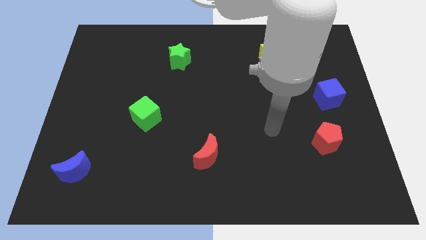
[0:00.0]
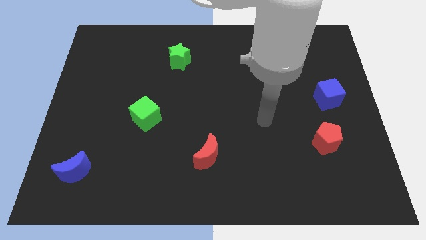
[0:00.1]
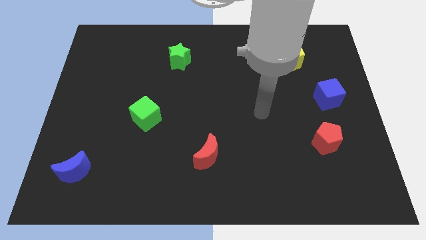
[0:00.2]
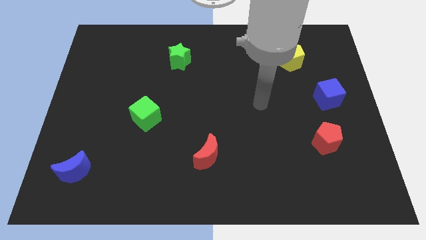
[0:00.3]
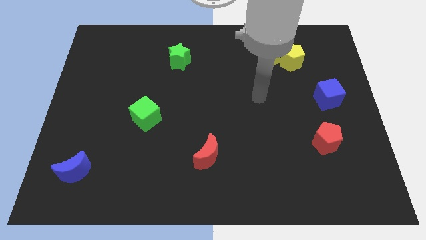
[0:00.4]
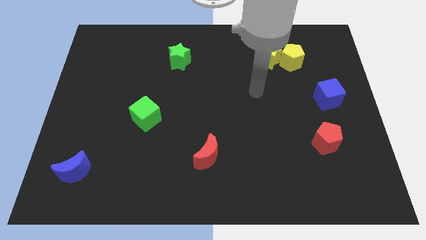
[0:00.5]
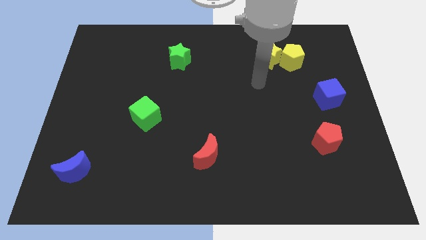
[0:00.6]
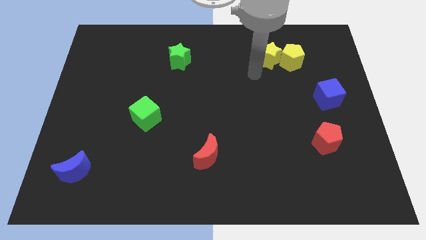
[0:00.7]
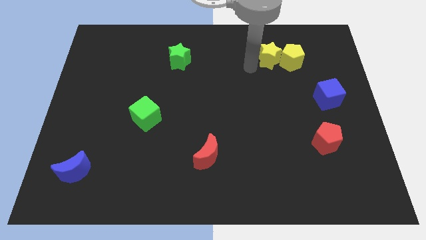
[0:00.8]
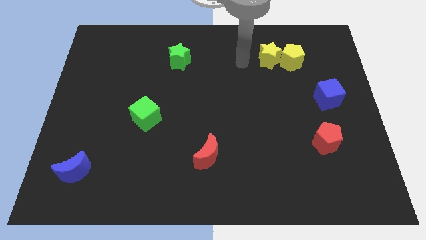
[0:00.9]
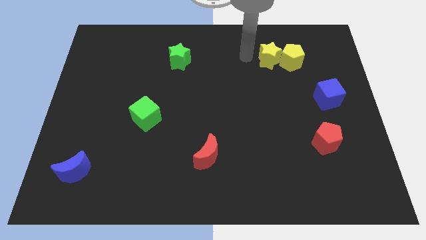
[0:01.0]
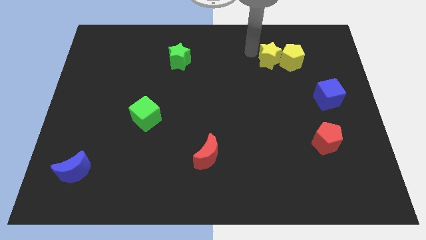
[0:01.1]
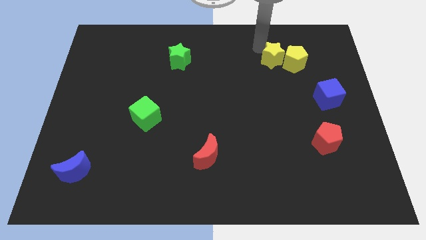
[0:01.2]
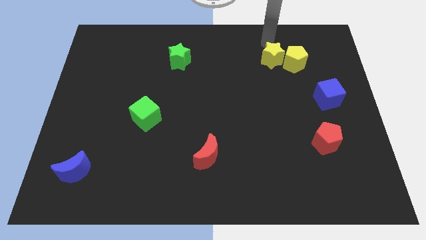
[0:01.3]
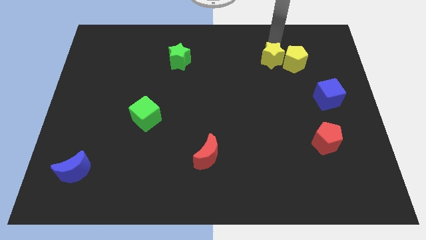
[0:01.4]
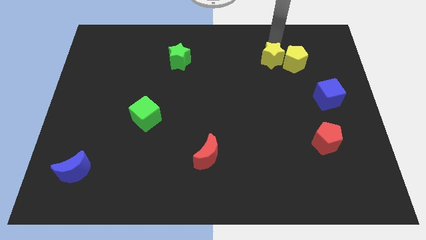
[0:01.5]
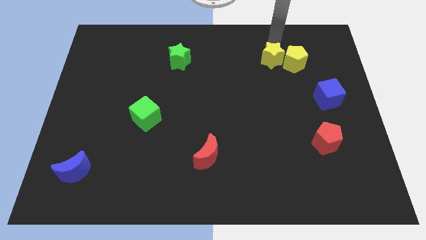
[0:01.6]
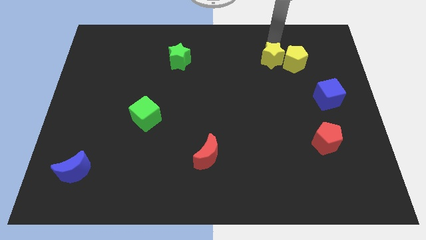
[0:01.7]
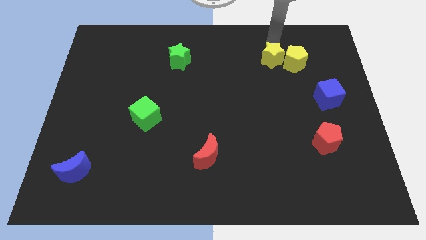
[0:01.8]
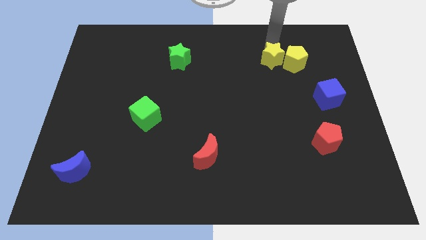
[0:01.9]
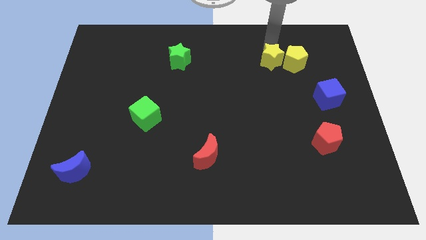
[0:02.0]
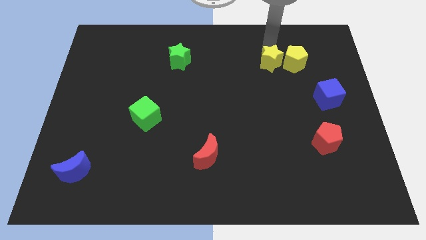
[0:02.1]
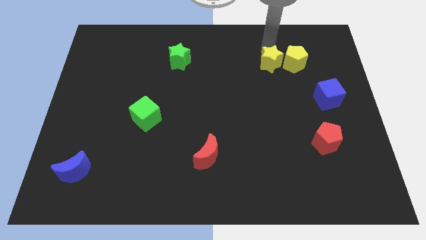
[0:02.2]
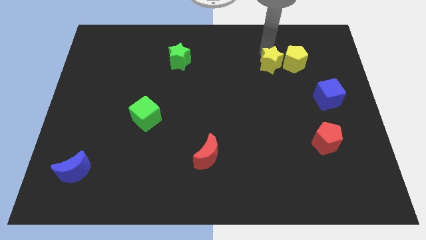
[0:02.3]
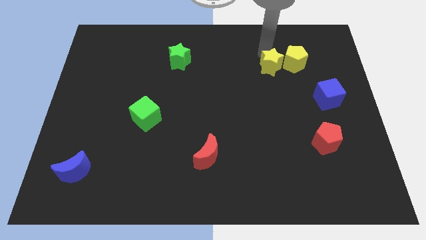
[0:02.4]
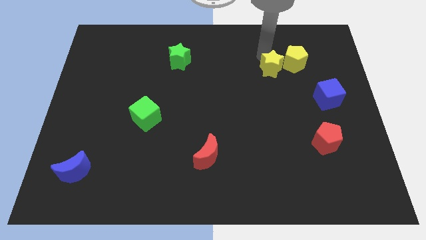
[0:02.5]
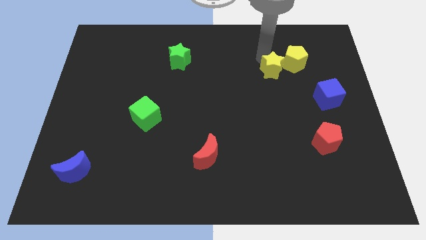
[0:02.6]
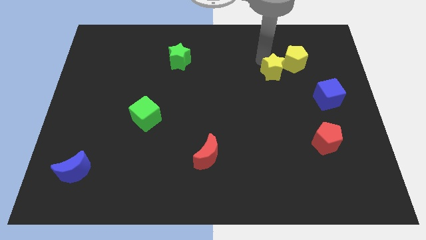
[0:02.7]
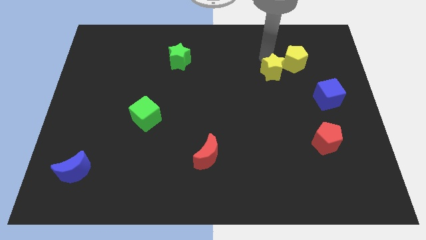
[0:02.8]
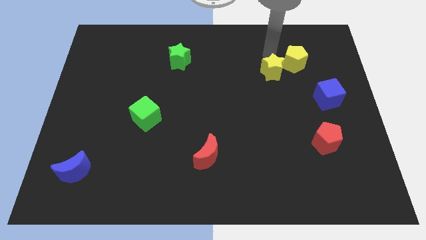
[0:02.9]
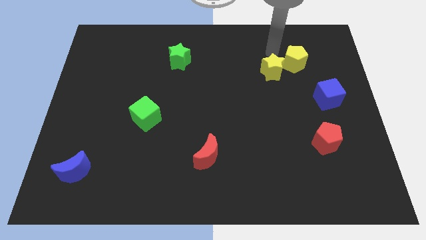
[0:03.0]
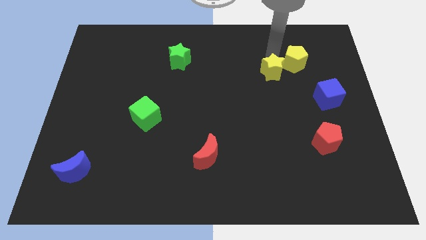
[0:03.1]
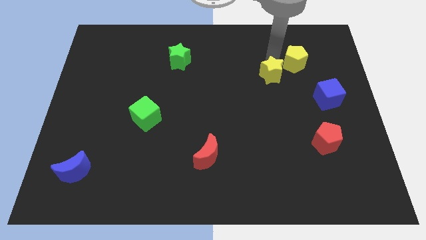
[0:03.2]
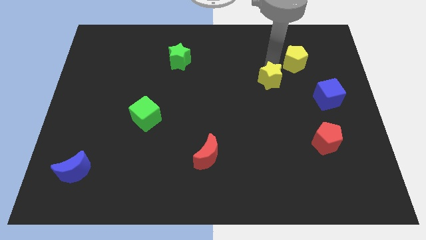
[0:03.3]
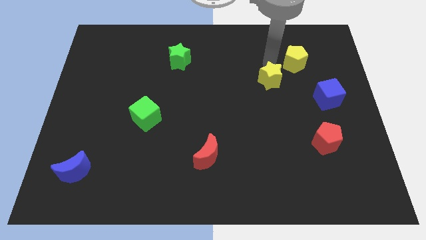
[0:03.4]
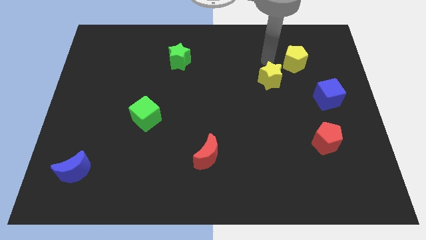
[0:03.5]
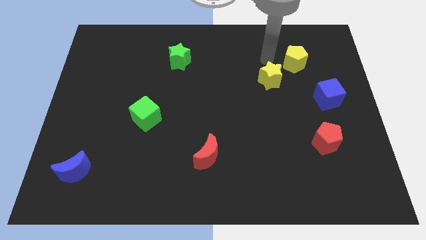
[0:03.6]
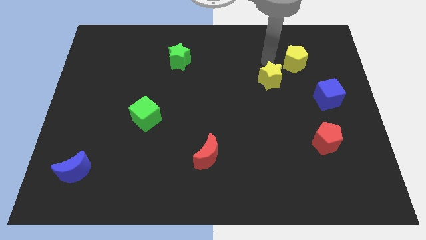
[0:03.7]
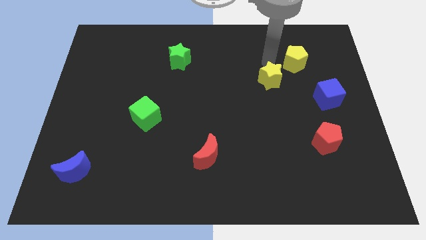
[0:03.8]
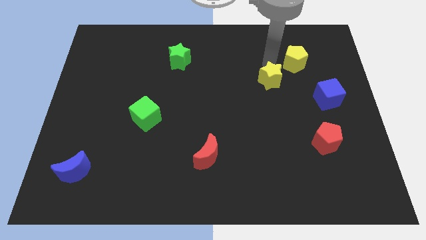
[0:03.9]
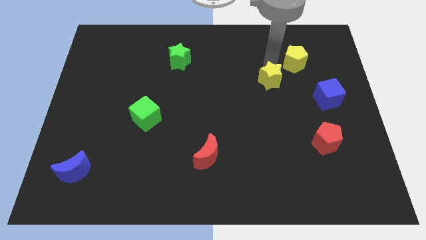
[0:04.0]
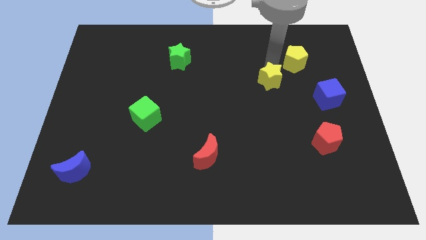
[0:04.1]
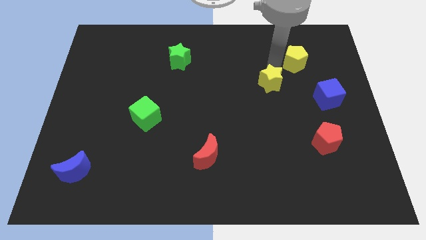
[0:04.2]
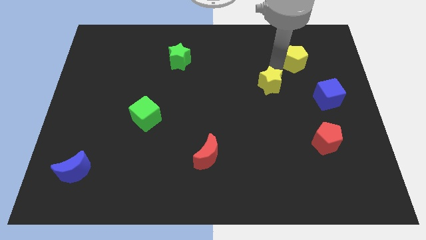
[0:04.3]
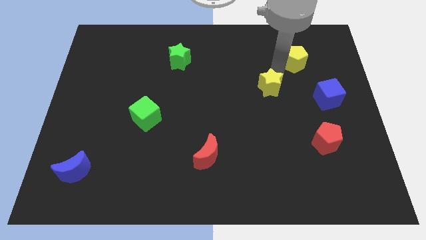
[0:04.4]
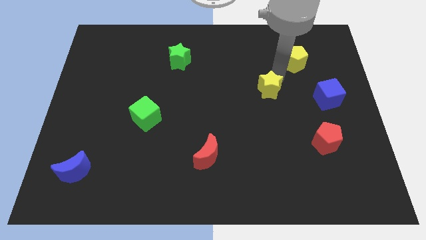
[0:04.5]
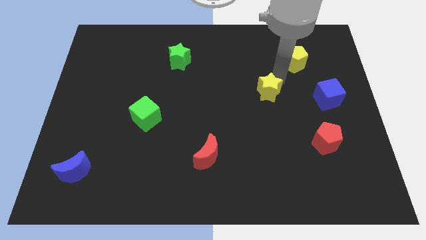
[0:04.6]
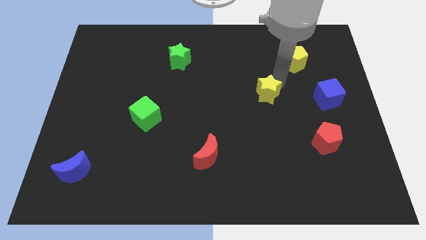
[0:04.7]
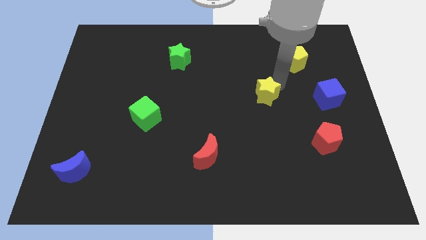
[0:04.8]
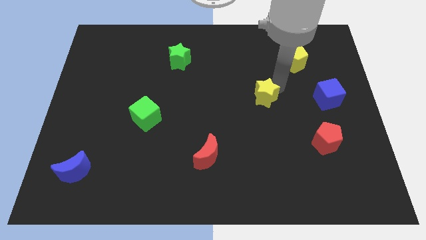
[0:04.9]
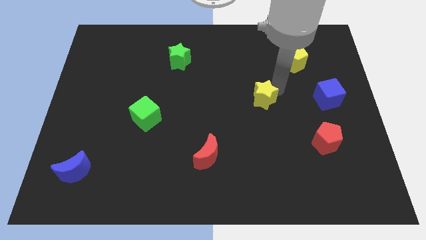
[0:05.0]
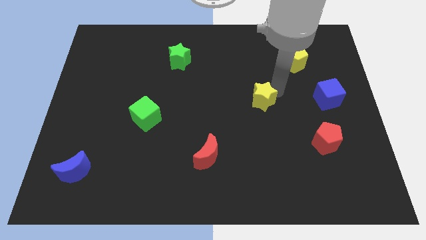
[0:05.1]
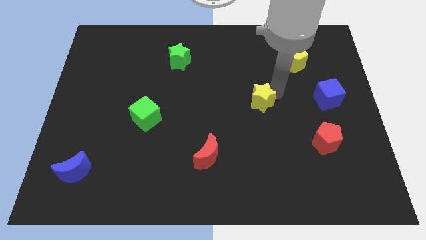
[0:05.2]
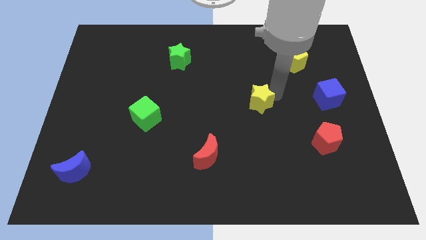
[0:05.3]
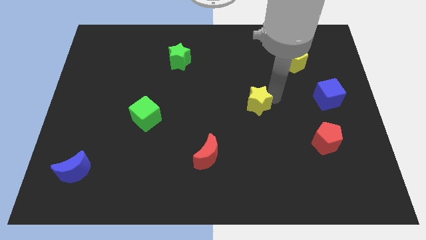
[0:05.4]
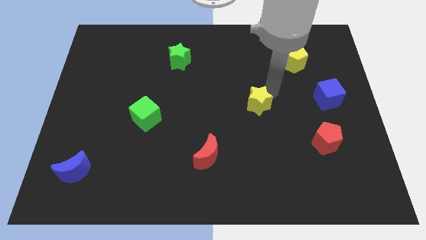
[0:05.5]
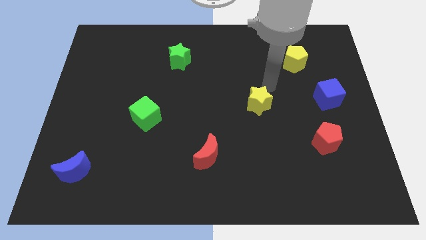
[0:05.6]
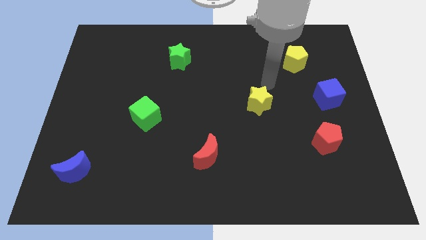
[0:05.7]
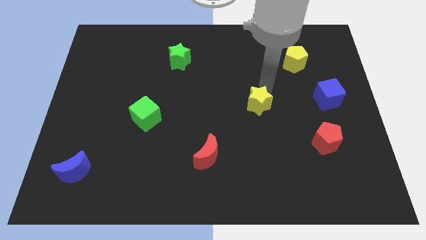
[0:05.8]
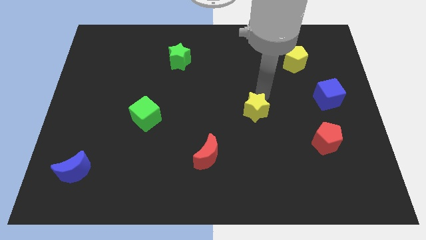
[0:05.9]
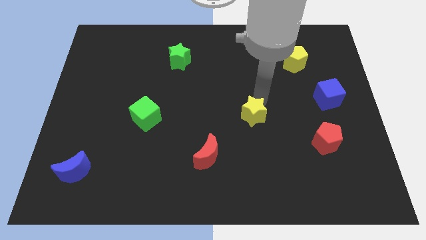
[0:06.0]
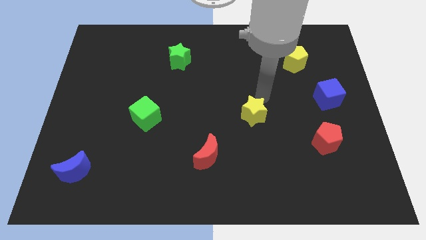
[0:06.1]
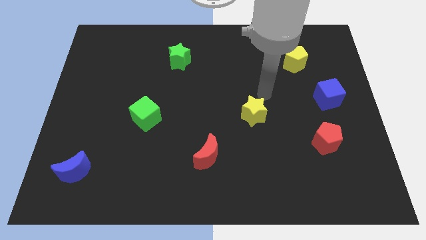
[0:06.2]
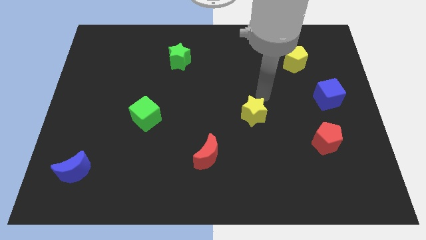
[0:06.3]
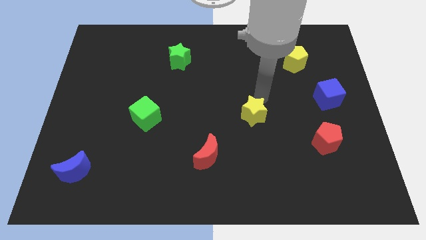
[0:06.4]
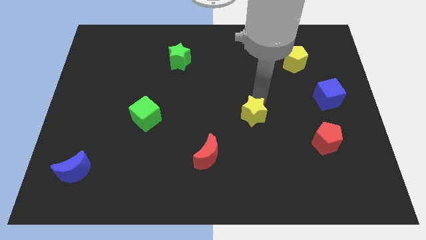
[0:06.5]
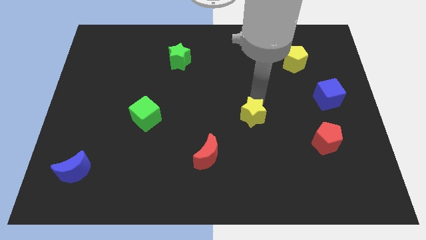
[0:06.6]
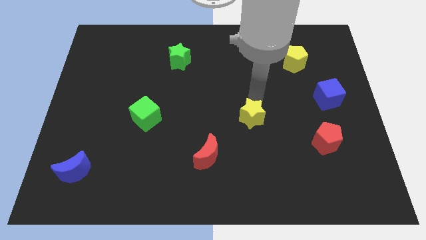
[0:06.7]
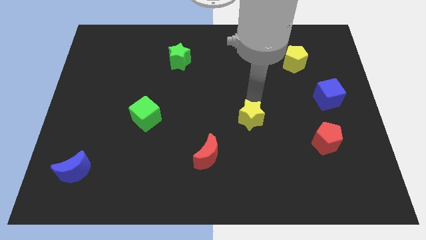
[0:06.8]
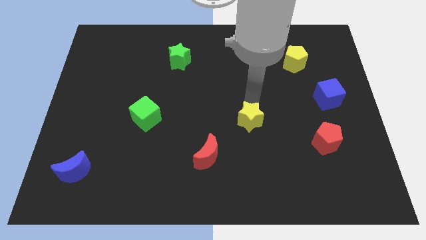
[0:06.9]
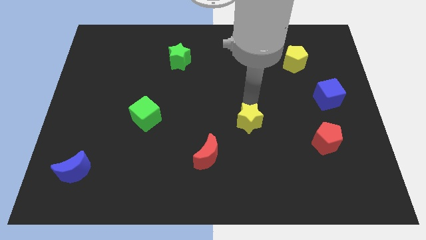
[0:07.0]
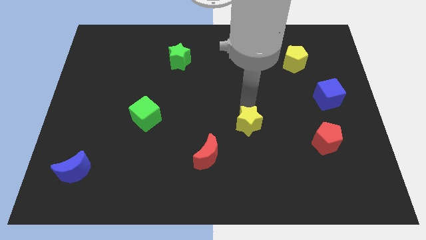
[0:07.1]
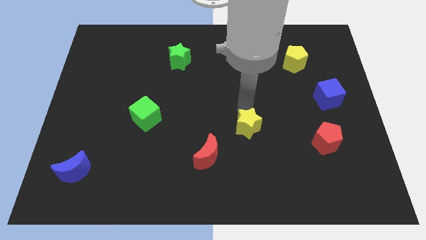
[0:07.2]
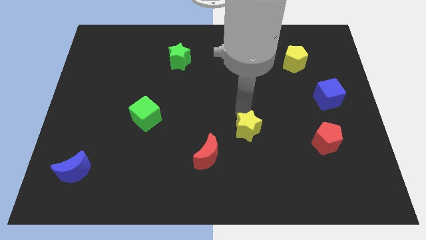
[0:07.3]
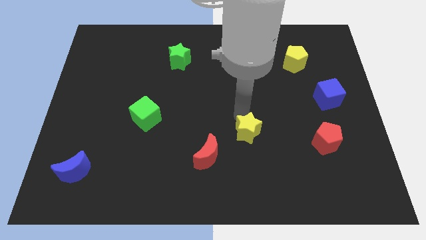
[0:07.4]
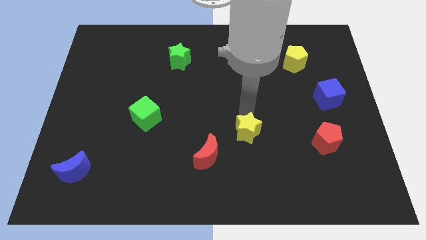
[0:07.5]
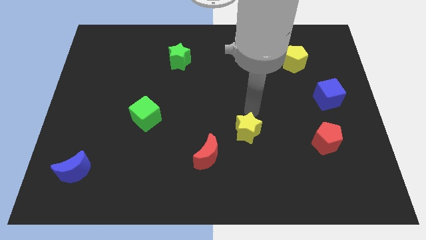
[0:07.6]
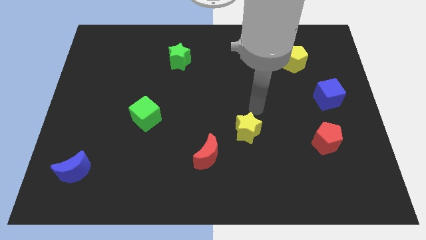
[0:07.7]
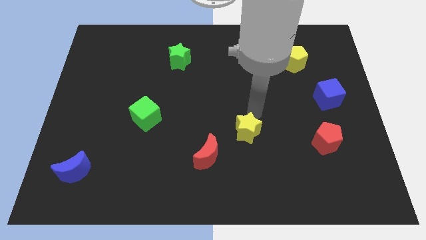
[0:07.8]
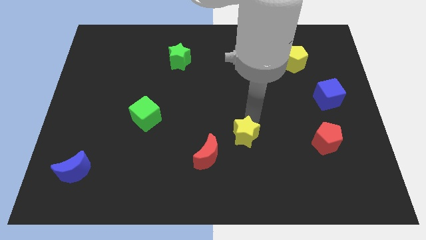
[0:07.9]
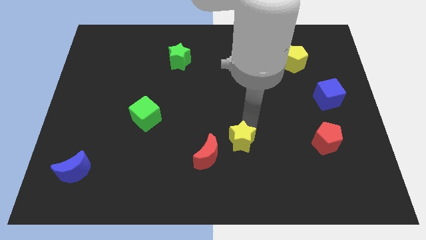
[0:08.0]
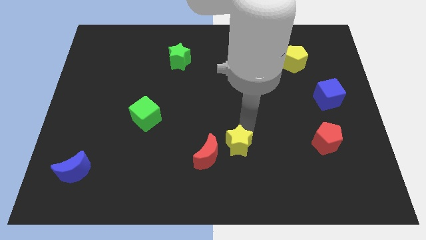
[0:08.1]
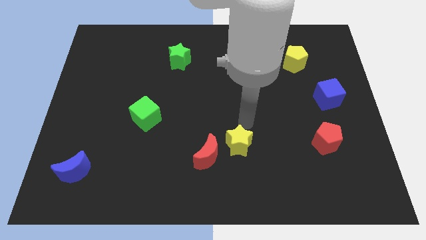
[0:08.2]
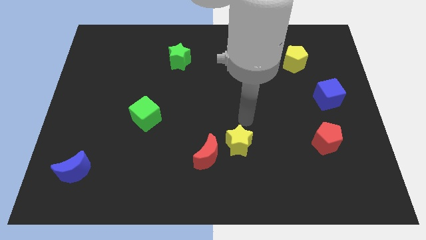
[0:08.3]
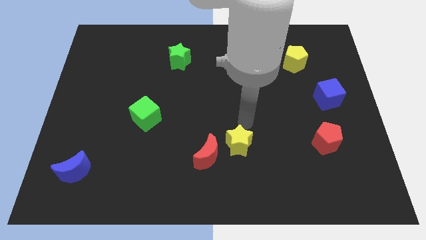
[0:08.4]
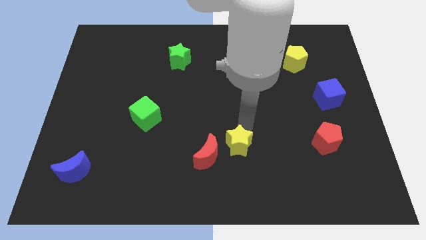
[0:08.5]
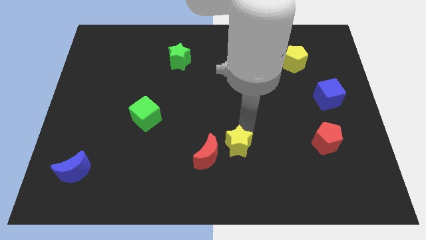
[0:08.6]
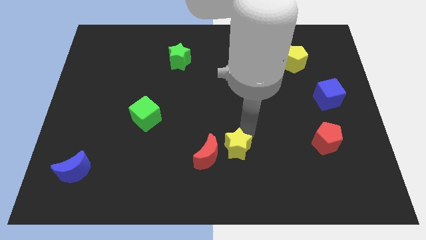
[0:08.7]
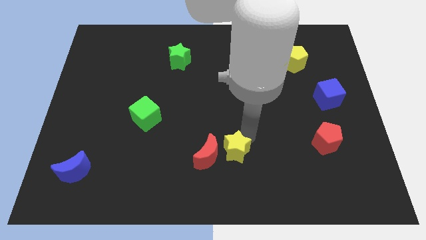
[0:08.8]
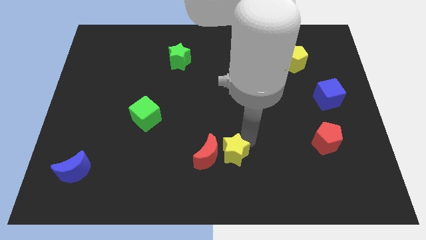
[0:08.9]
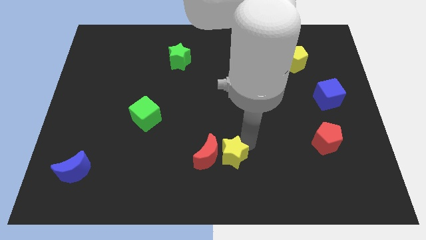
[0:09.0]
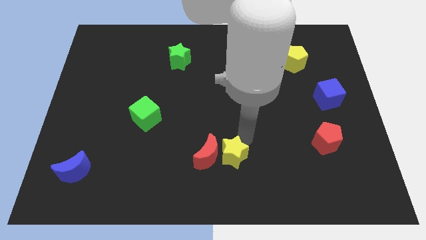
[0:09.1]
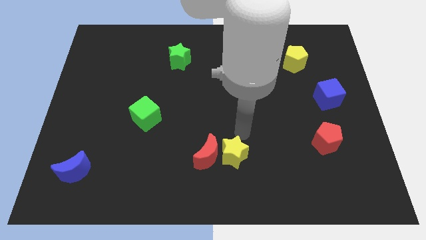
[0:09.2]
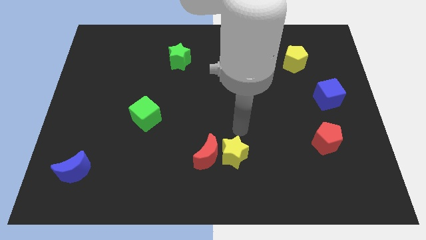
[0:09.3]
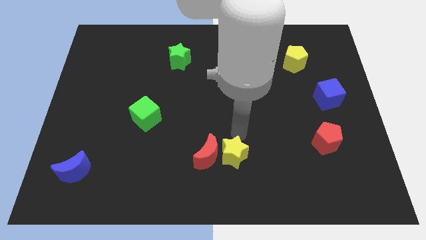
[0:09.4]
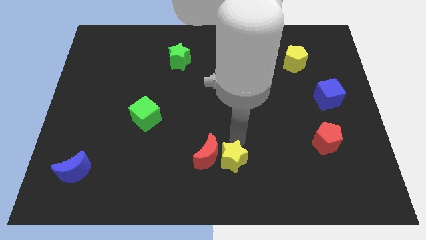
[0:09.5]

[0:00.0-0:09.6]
slide the yellow star to the bottom side
